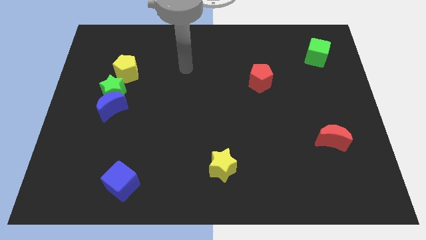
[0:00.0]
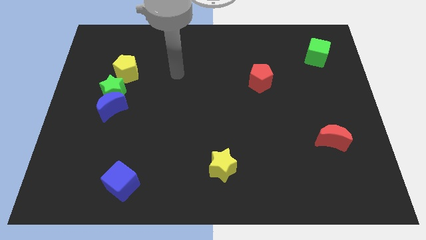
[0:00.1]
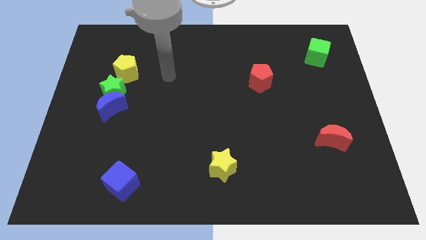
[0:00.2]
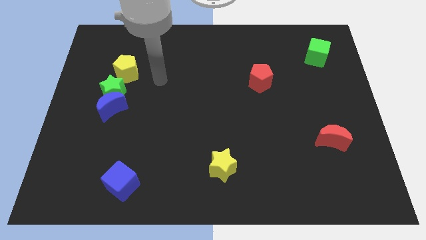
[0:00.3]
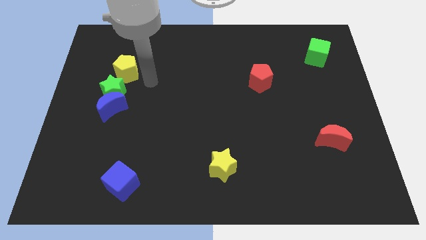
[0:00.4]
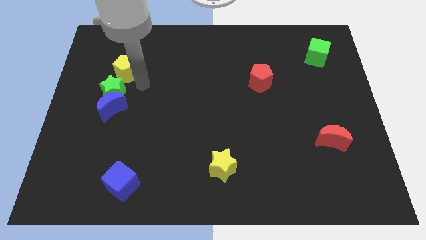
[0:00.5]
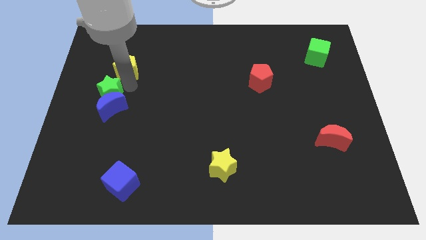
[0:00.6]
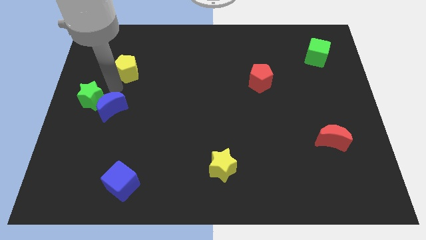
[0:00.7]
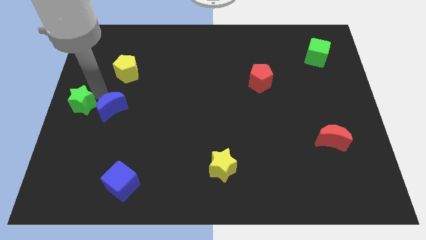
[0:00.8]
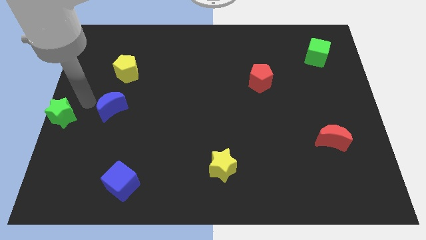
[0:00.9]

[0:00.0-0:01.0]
separate the blue moon from the green star

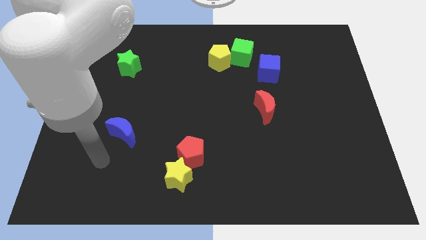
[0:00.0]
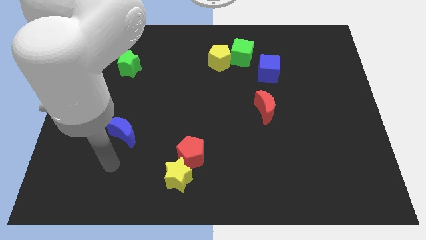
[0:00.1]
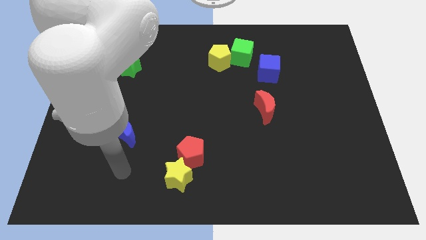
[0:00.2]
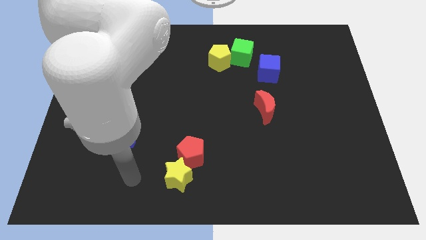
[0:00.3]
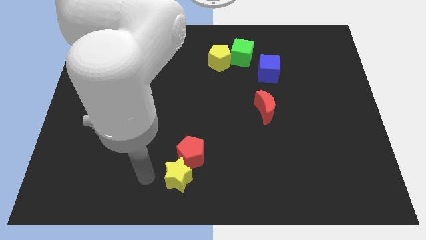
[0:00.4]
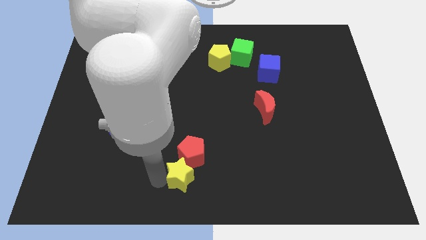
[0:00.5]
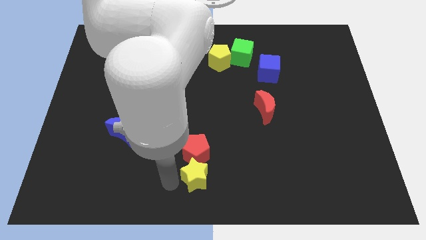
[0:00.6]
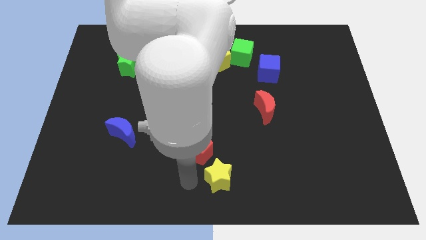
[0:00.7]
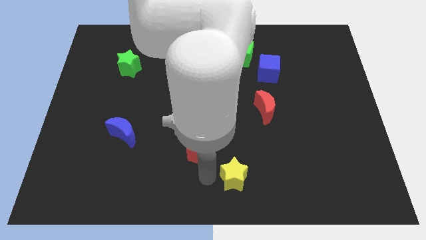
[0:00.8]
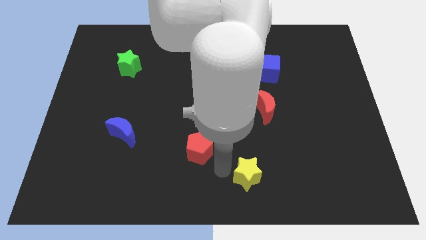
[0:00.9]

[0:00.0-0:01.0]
move the red pentagon away from the yellow star

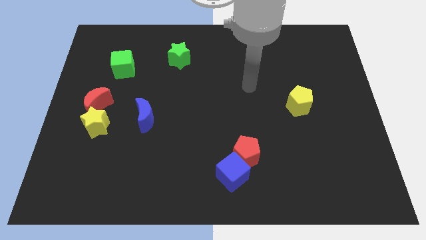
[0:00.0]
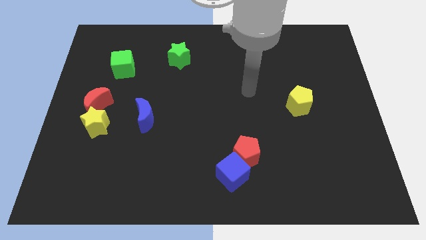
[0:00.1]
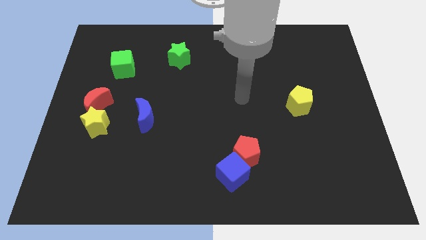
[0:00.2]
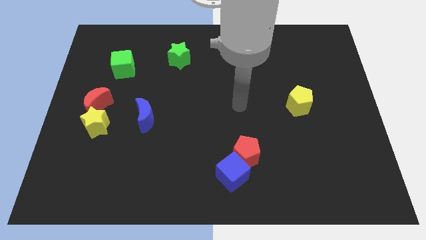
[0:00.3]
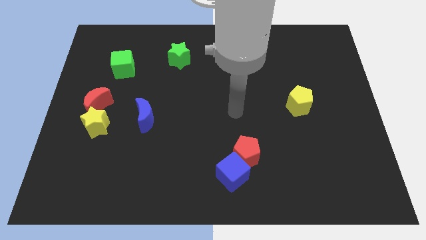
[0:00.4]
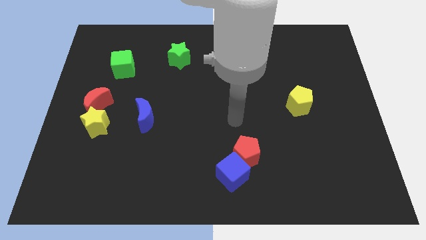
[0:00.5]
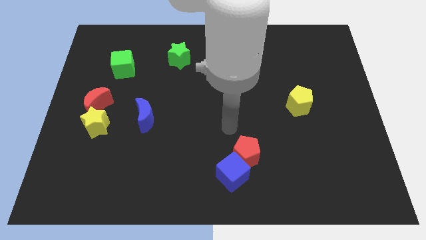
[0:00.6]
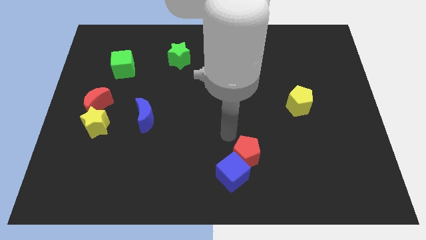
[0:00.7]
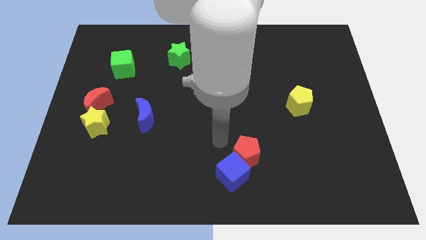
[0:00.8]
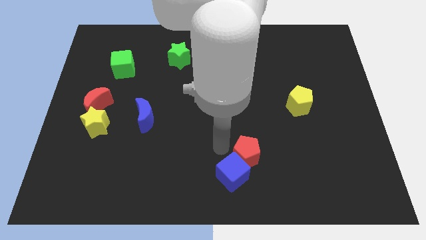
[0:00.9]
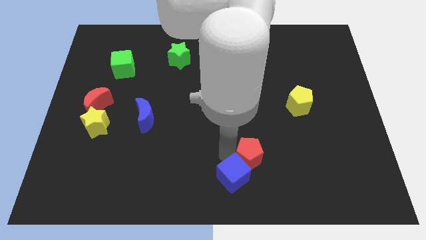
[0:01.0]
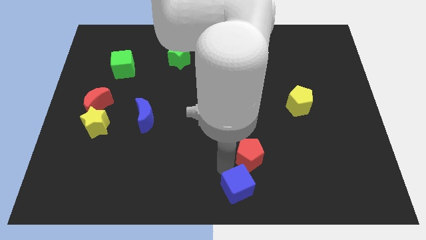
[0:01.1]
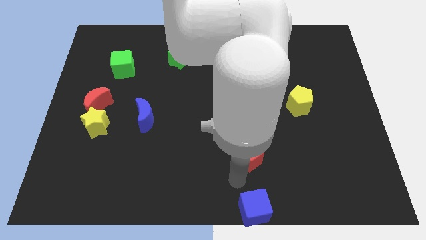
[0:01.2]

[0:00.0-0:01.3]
pull the red pentagon apart from the blue cube

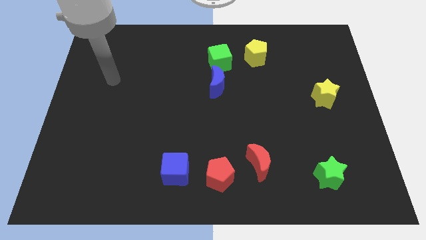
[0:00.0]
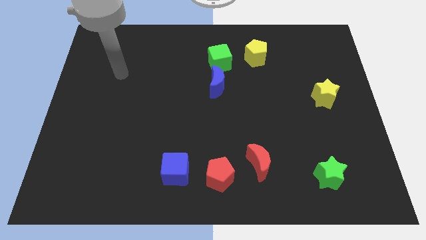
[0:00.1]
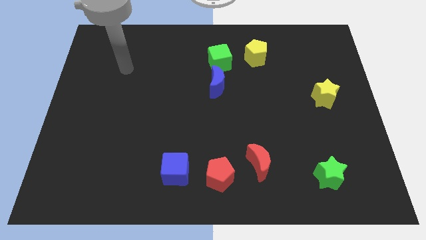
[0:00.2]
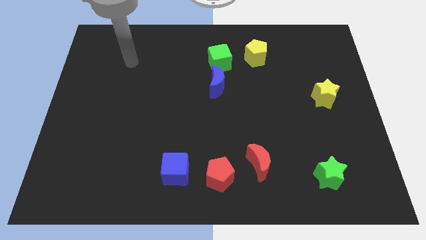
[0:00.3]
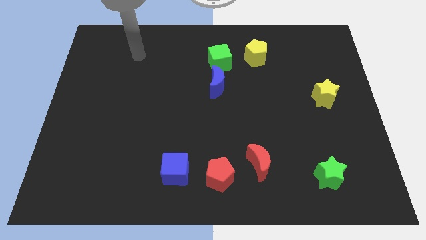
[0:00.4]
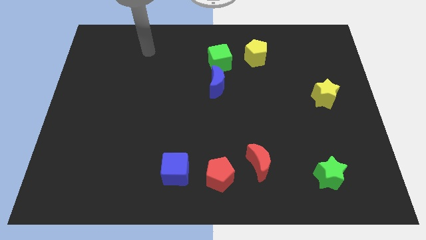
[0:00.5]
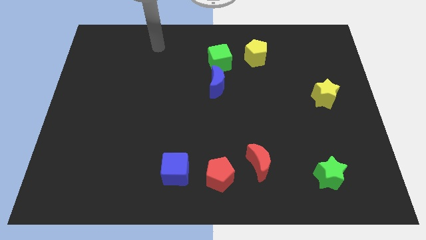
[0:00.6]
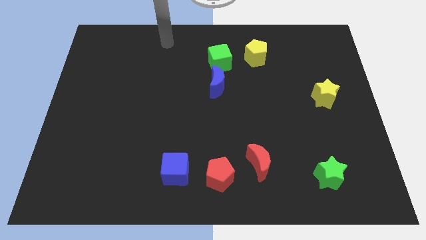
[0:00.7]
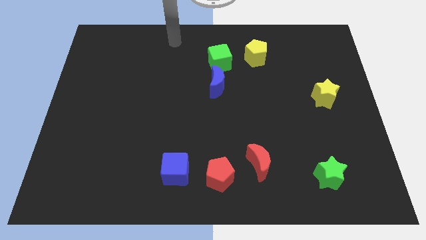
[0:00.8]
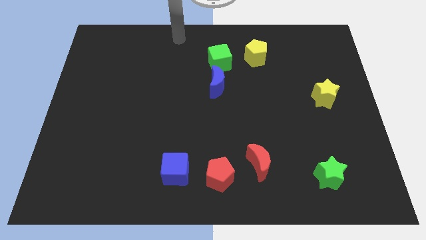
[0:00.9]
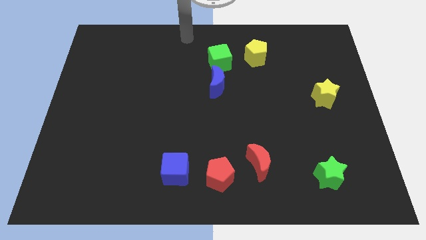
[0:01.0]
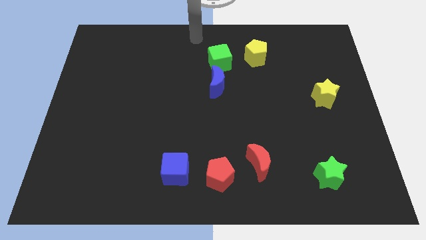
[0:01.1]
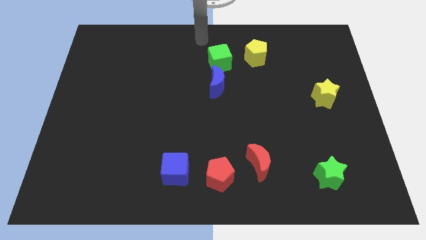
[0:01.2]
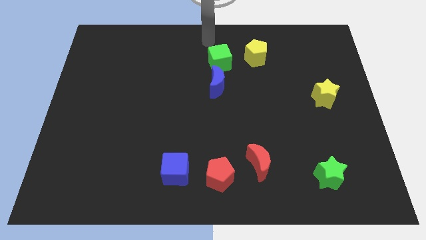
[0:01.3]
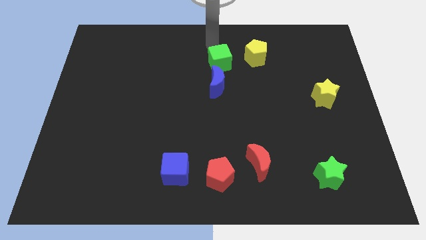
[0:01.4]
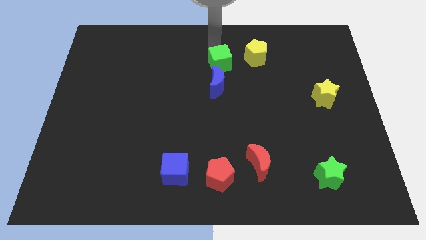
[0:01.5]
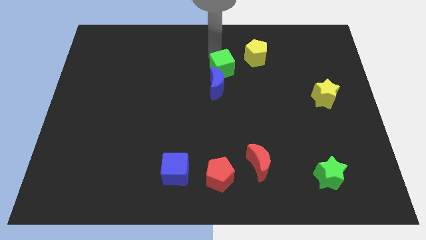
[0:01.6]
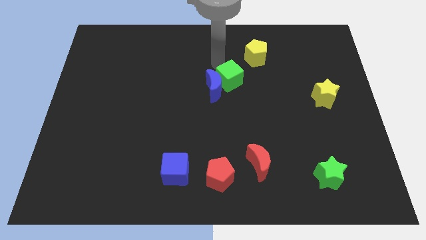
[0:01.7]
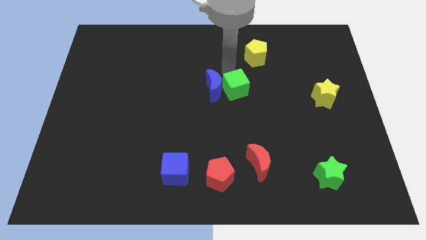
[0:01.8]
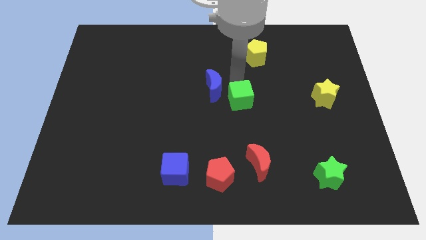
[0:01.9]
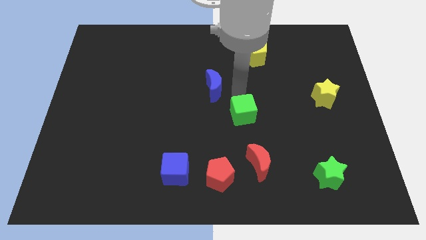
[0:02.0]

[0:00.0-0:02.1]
pull the blue moon apart from the green cube

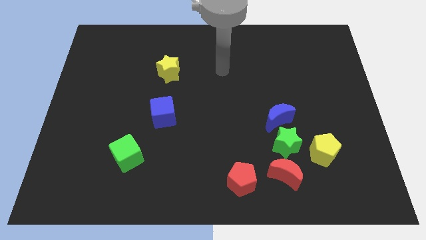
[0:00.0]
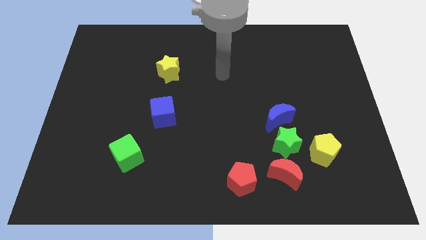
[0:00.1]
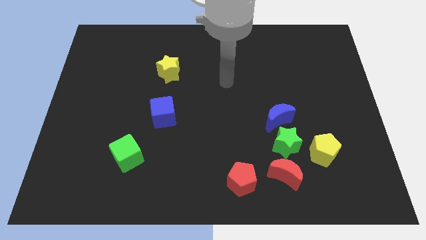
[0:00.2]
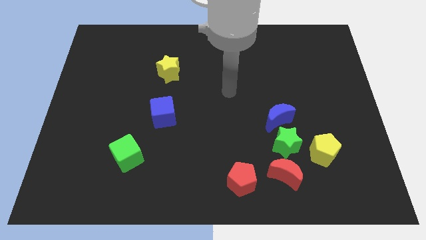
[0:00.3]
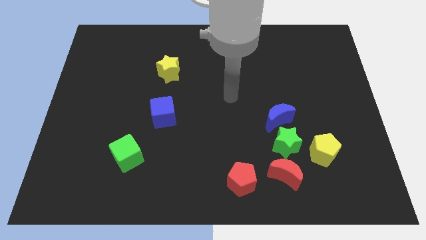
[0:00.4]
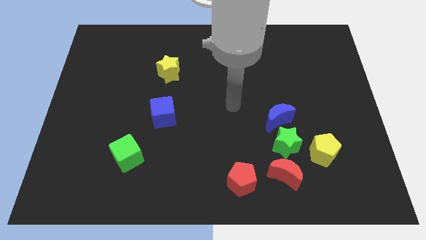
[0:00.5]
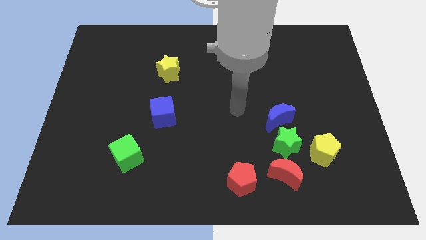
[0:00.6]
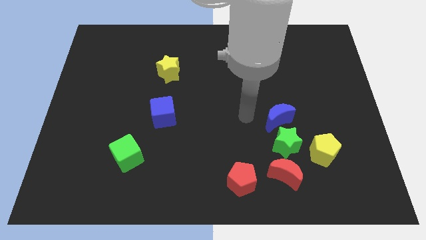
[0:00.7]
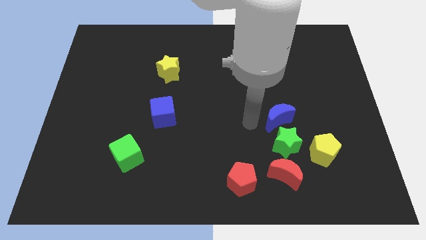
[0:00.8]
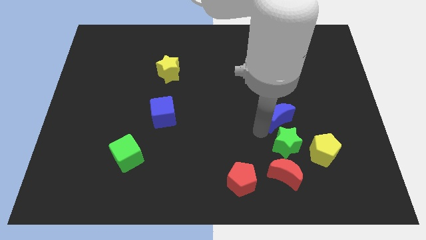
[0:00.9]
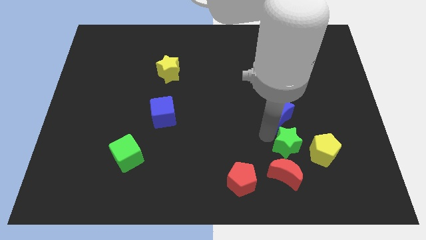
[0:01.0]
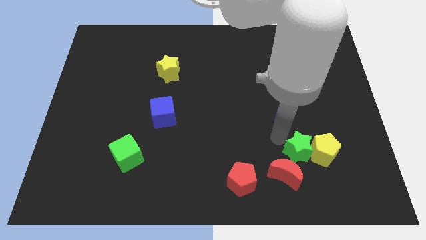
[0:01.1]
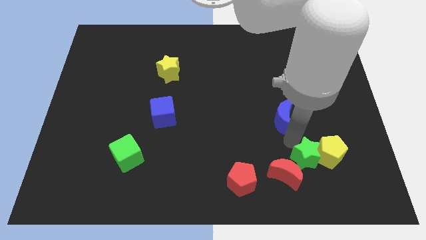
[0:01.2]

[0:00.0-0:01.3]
move the blue moon away from the green star

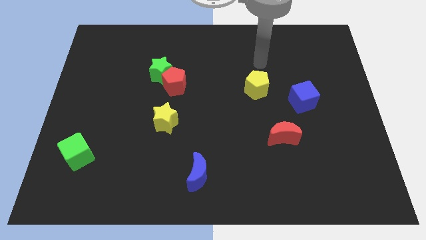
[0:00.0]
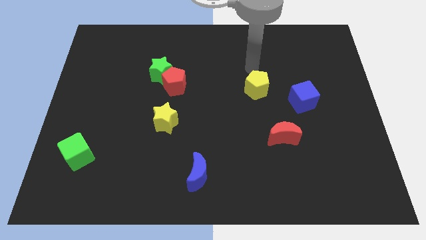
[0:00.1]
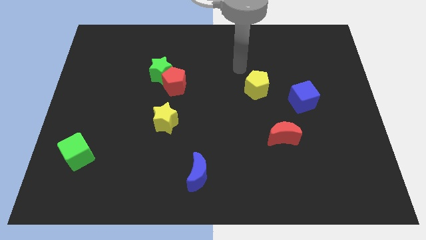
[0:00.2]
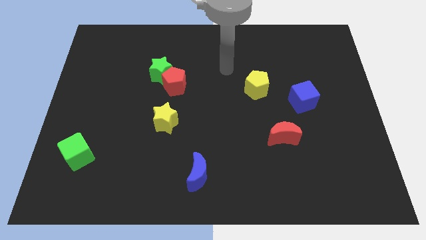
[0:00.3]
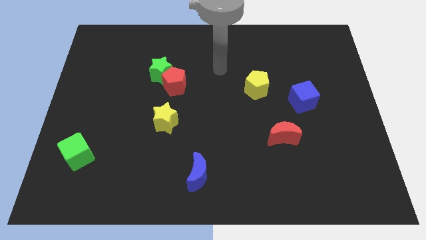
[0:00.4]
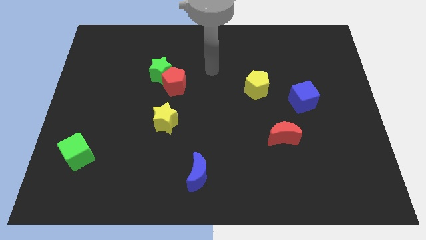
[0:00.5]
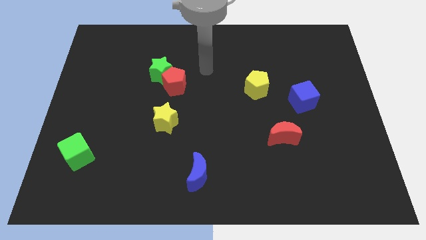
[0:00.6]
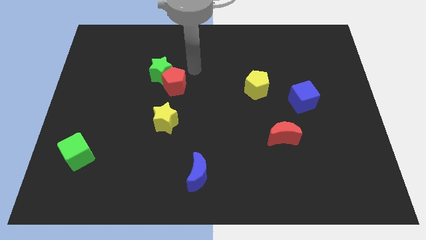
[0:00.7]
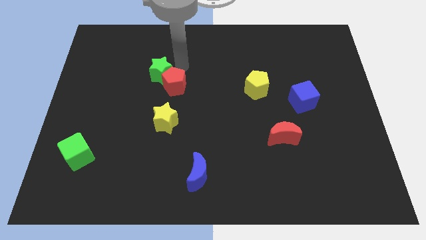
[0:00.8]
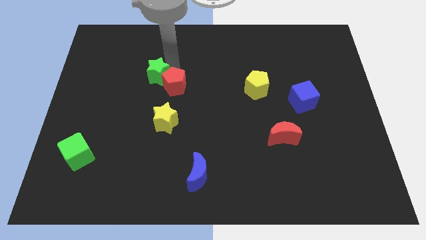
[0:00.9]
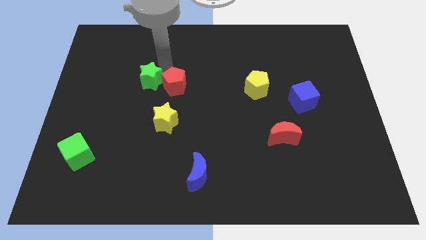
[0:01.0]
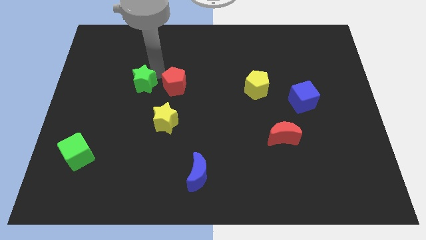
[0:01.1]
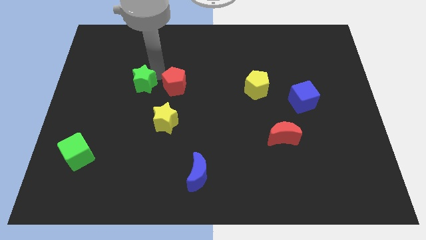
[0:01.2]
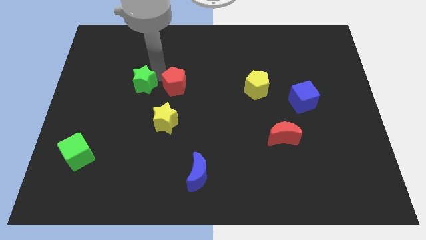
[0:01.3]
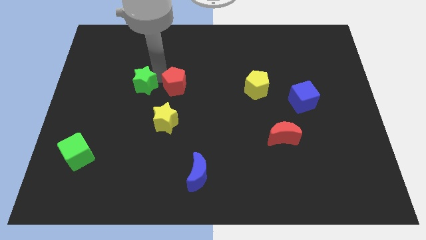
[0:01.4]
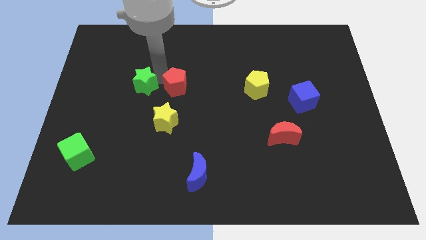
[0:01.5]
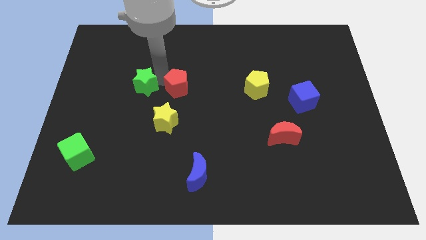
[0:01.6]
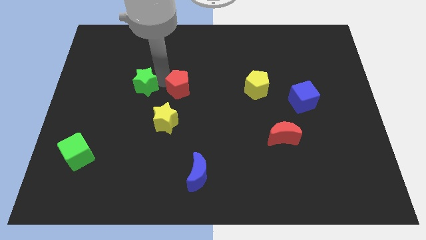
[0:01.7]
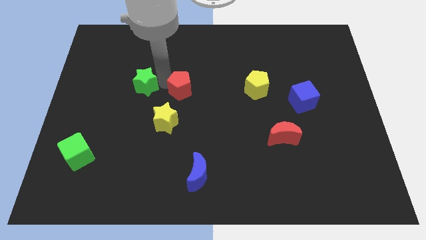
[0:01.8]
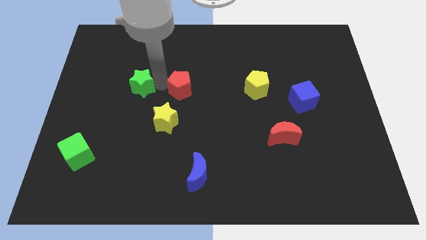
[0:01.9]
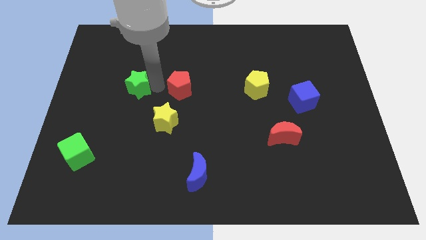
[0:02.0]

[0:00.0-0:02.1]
move the red pentagon away from the green star

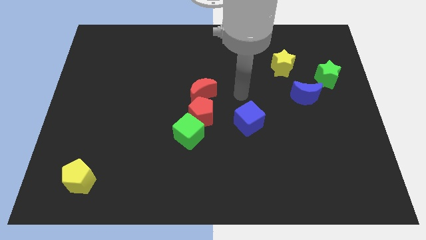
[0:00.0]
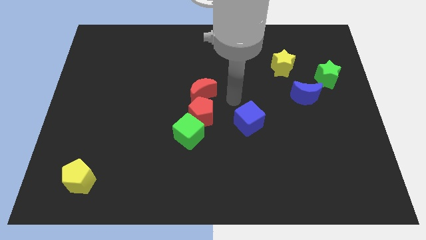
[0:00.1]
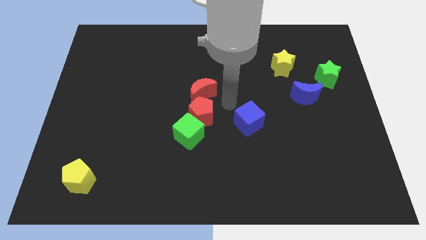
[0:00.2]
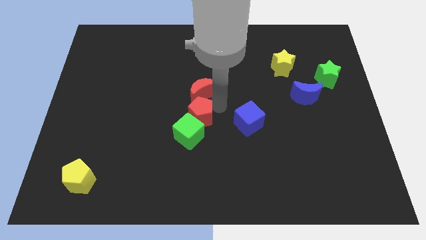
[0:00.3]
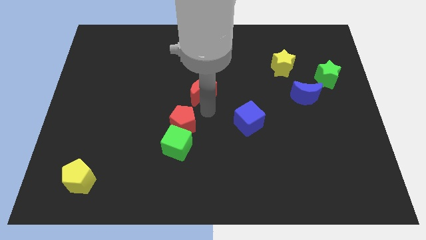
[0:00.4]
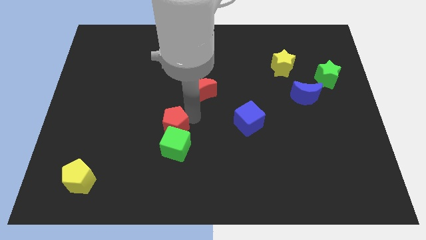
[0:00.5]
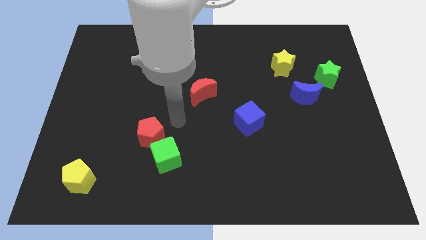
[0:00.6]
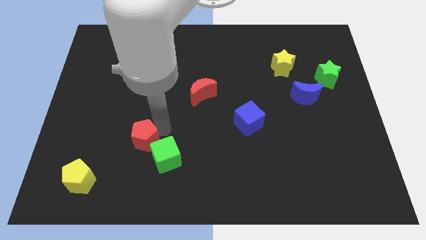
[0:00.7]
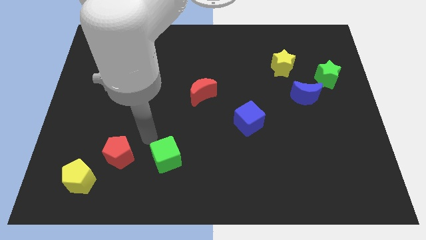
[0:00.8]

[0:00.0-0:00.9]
pull the green cube apart from the red pentagon
